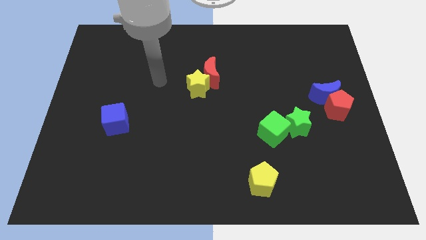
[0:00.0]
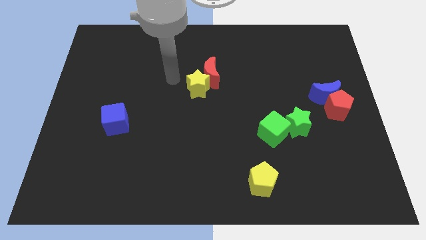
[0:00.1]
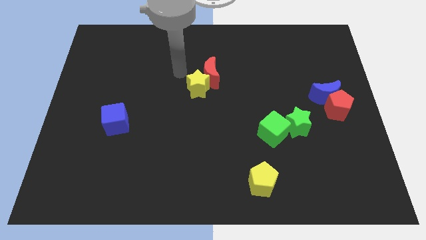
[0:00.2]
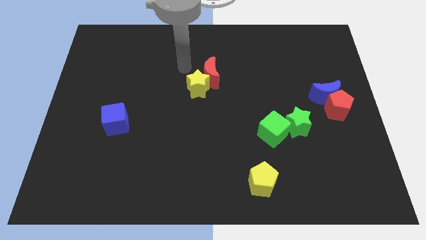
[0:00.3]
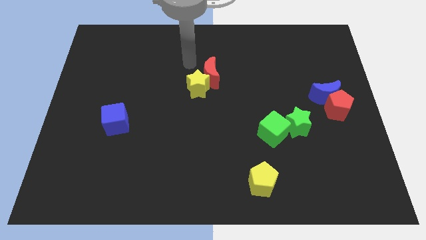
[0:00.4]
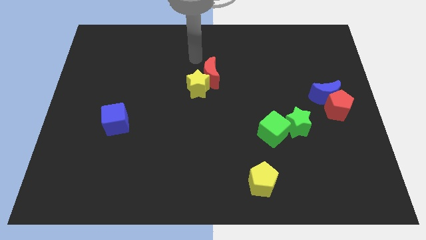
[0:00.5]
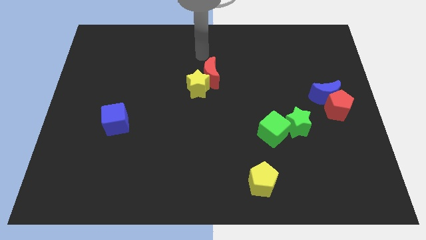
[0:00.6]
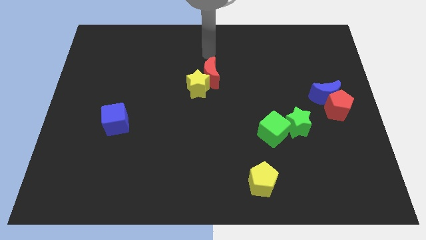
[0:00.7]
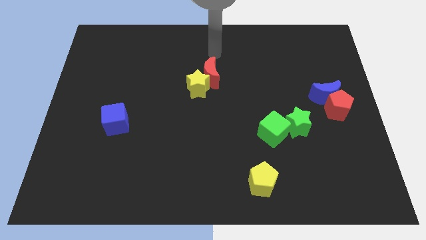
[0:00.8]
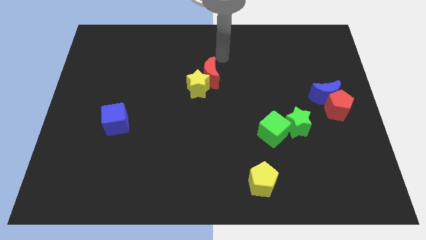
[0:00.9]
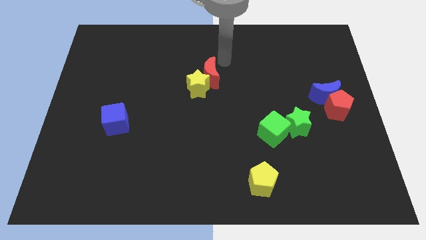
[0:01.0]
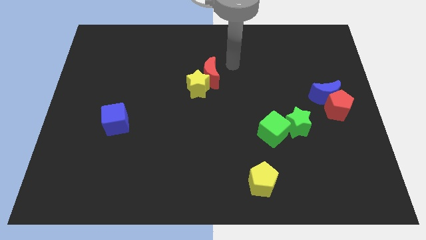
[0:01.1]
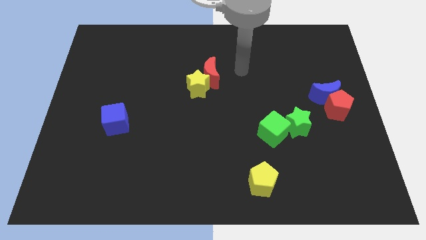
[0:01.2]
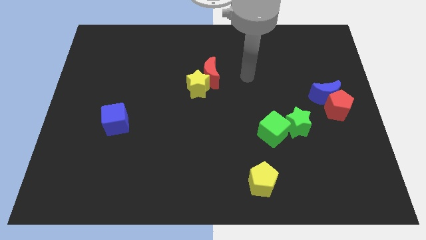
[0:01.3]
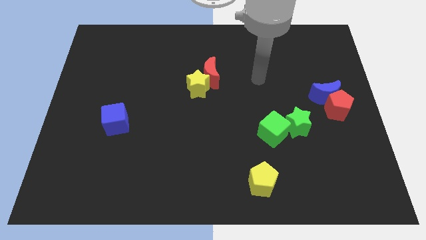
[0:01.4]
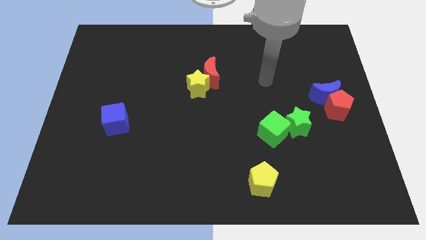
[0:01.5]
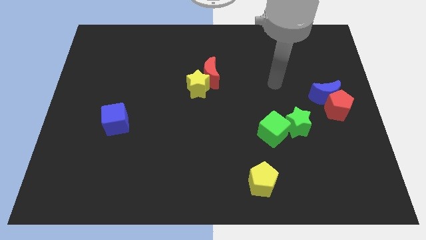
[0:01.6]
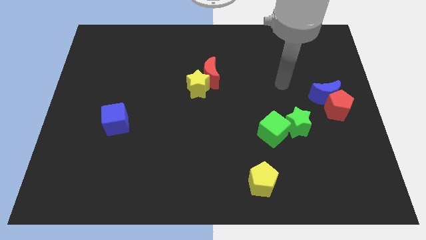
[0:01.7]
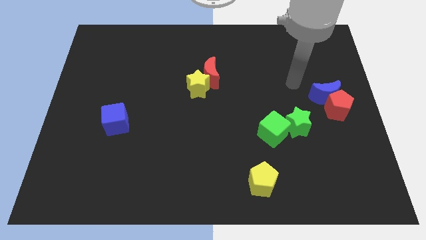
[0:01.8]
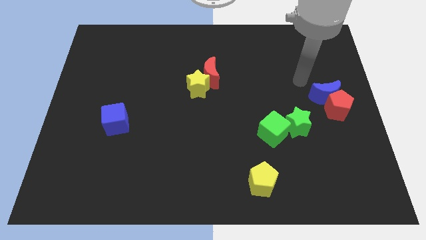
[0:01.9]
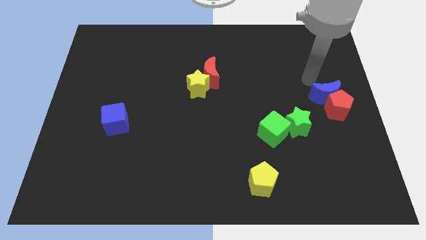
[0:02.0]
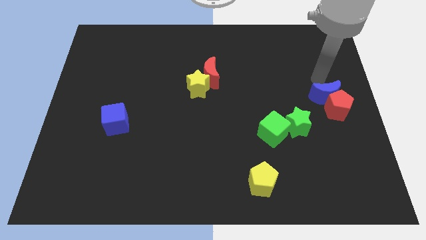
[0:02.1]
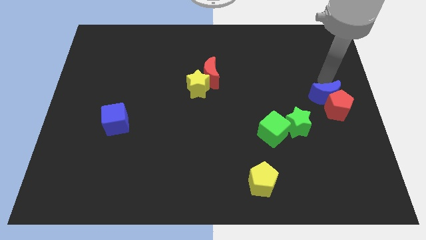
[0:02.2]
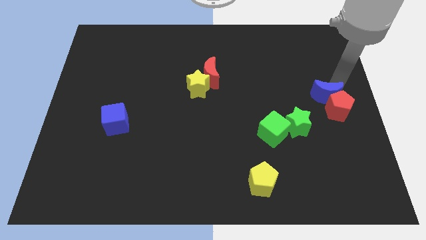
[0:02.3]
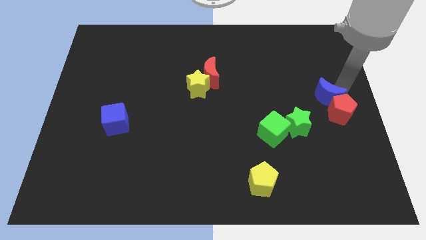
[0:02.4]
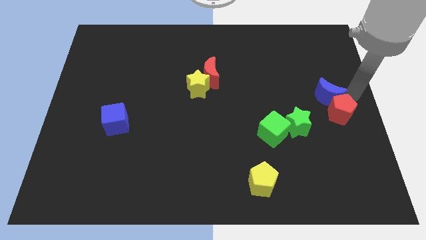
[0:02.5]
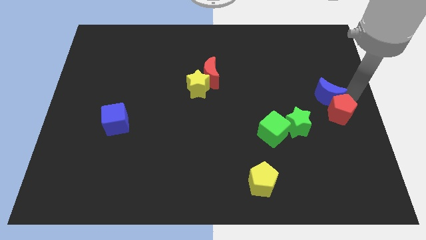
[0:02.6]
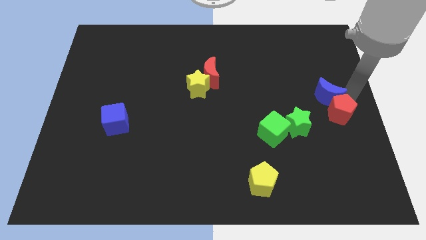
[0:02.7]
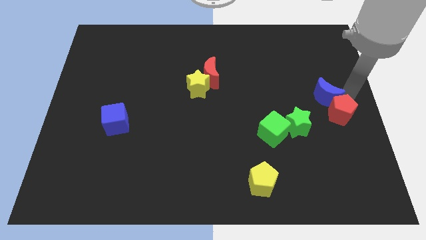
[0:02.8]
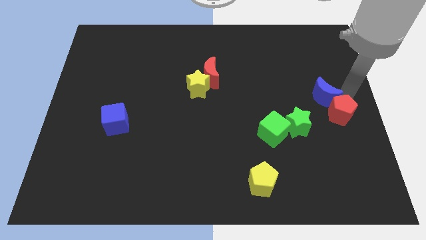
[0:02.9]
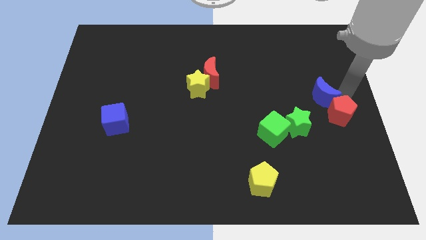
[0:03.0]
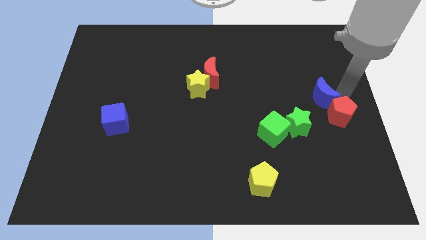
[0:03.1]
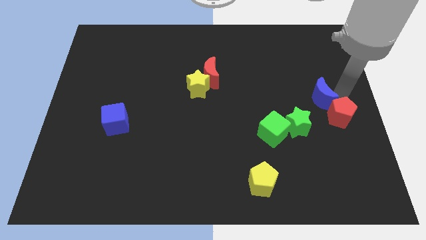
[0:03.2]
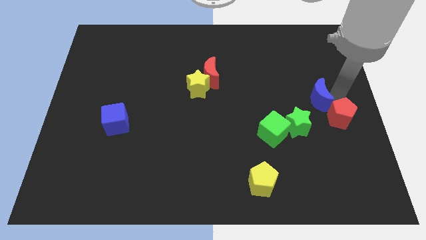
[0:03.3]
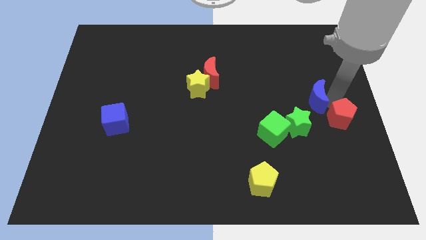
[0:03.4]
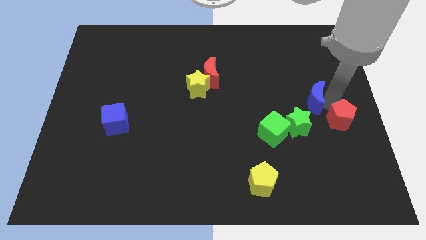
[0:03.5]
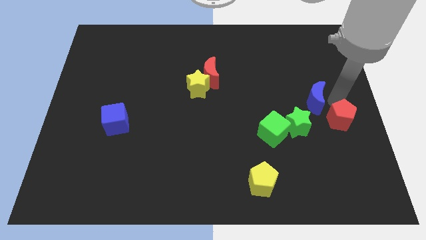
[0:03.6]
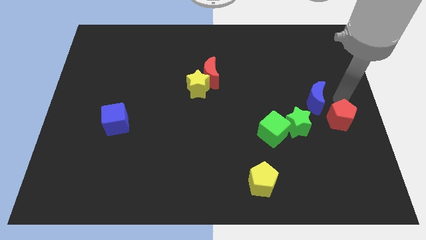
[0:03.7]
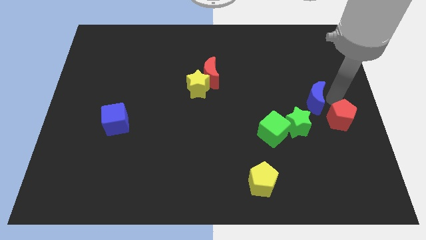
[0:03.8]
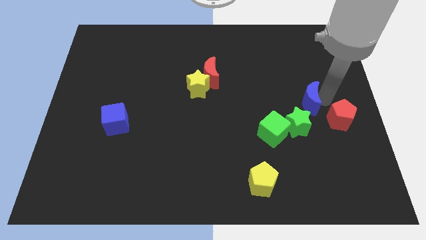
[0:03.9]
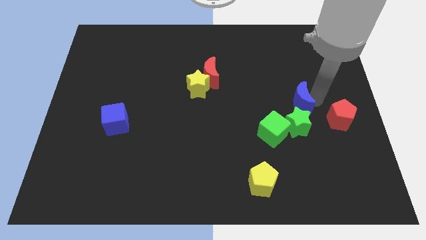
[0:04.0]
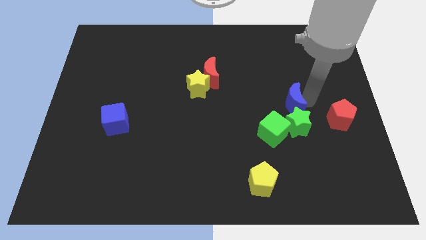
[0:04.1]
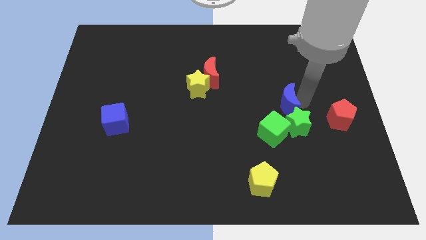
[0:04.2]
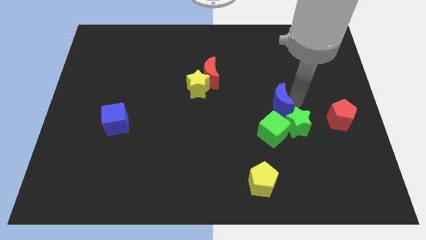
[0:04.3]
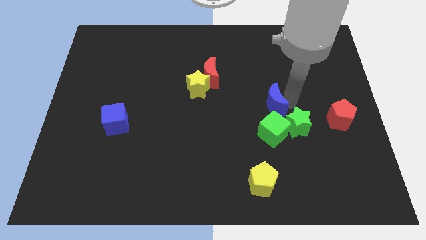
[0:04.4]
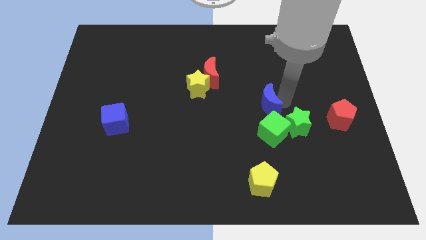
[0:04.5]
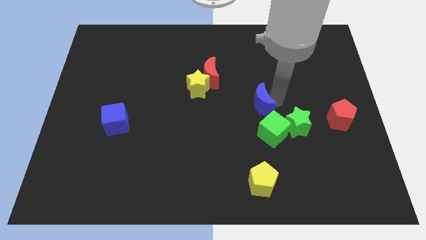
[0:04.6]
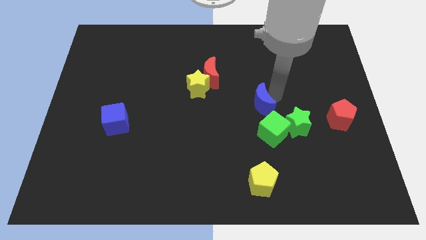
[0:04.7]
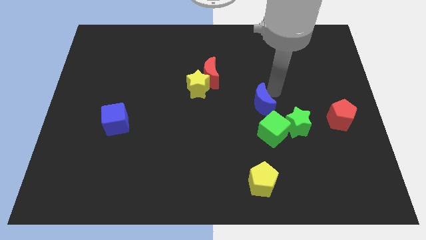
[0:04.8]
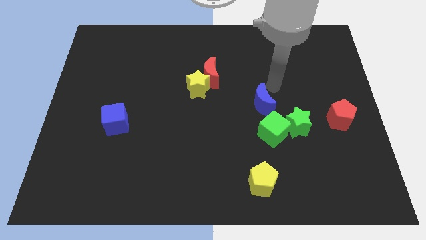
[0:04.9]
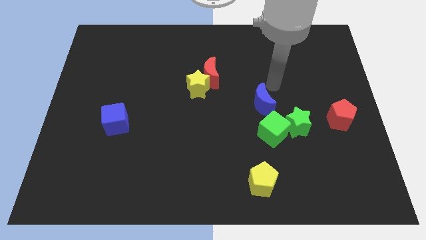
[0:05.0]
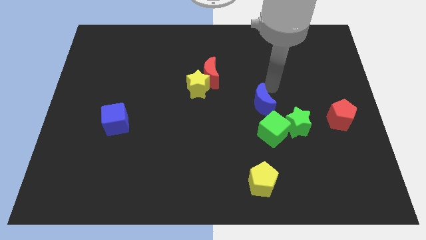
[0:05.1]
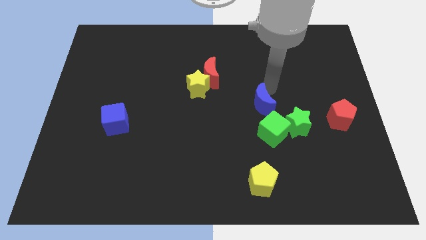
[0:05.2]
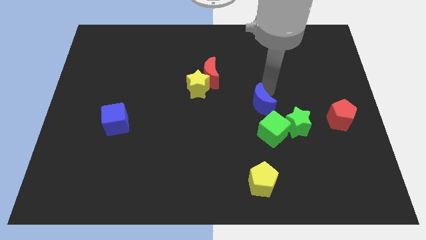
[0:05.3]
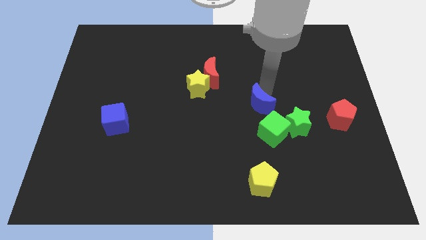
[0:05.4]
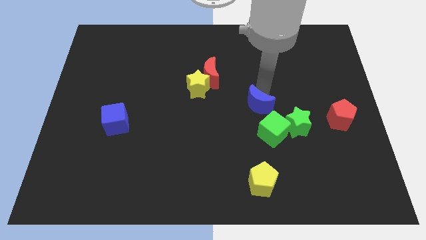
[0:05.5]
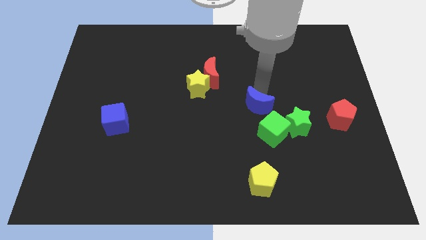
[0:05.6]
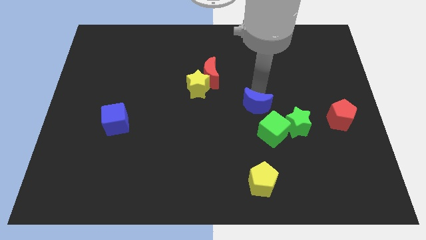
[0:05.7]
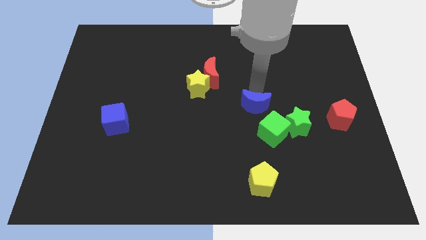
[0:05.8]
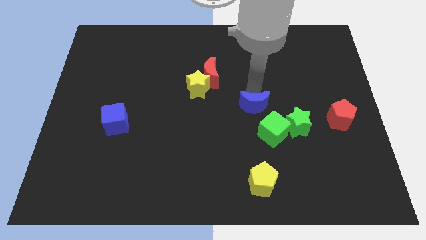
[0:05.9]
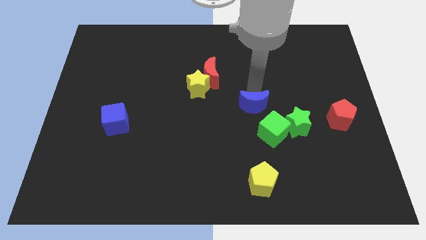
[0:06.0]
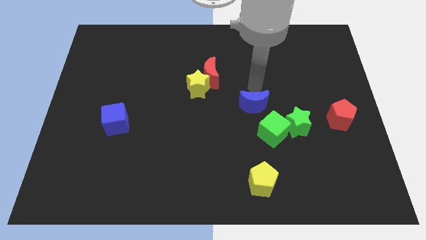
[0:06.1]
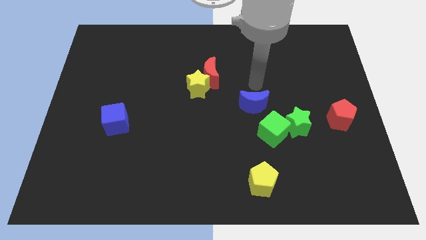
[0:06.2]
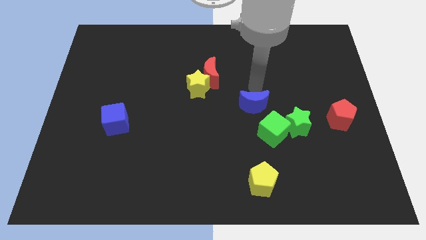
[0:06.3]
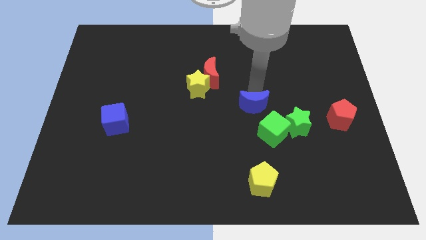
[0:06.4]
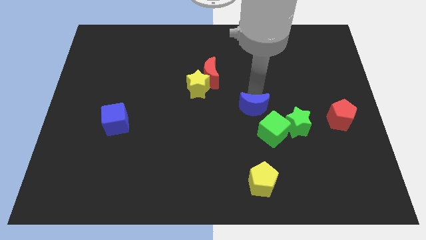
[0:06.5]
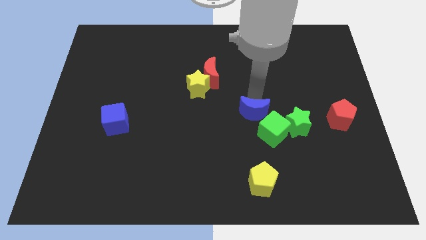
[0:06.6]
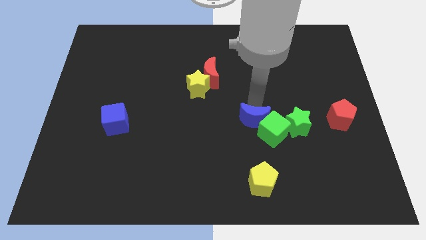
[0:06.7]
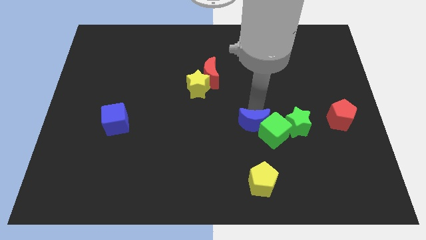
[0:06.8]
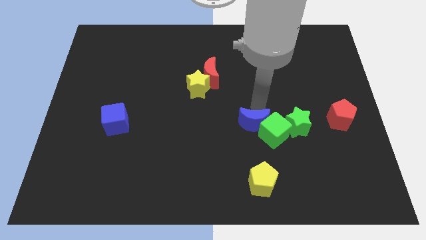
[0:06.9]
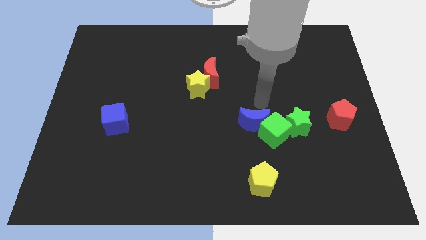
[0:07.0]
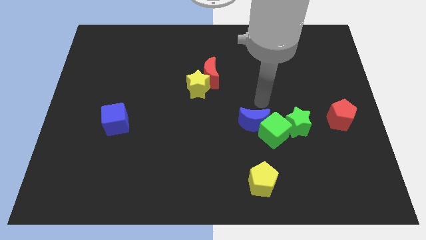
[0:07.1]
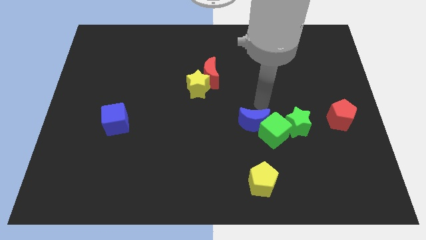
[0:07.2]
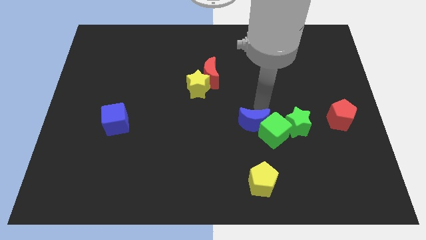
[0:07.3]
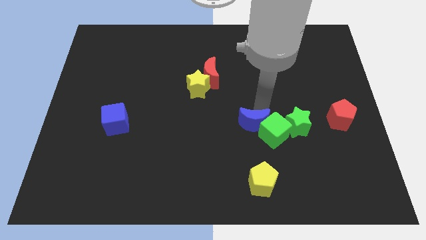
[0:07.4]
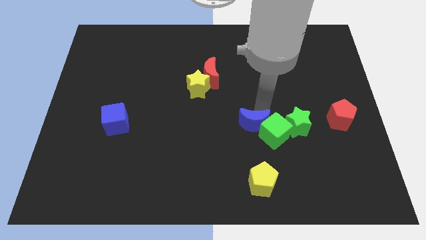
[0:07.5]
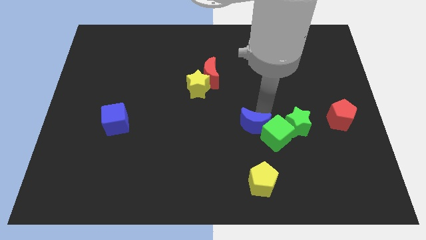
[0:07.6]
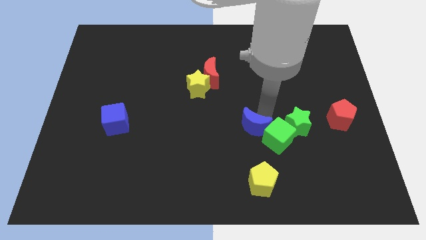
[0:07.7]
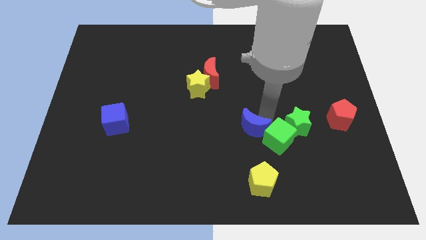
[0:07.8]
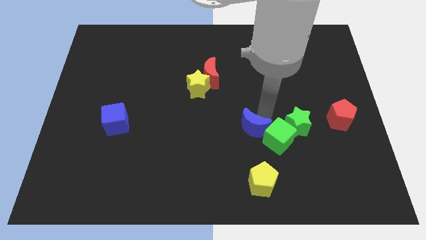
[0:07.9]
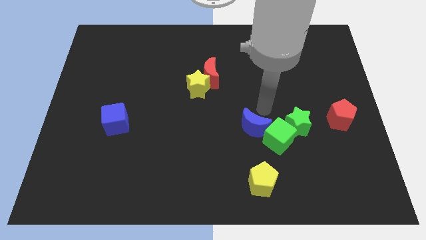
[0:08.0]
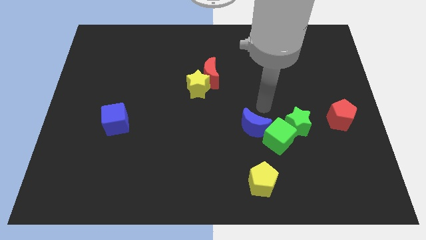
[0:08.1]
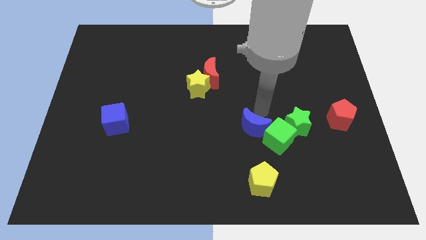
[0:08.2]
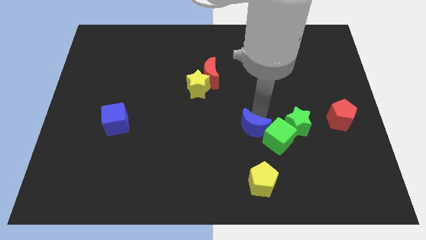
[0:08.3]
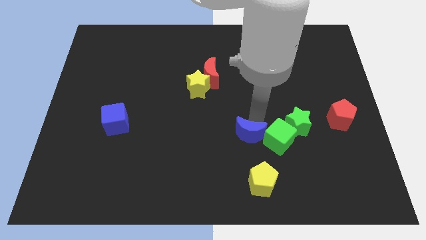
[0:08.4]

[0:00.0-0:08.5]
push the blue moon down and then left
